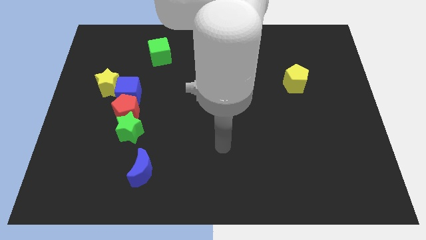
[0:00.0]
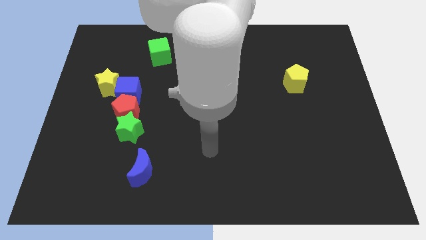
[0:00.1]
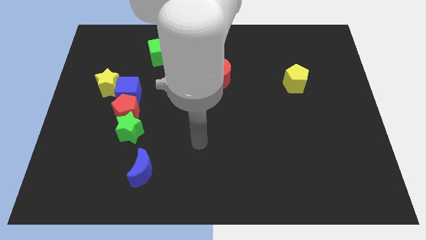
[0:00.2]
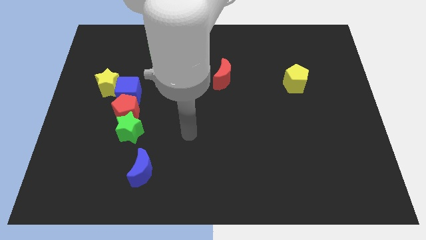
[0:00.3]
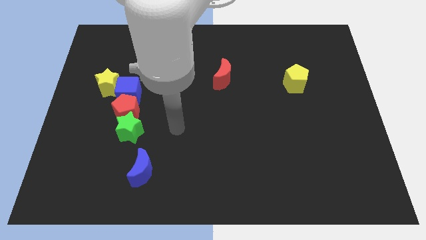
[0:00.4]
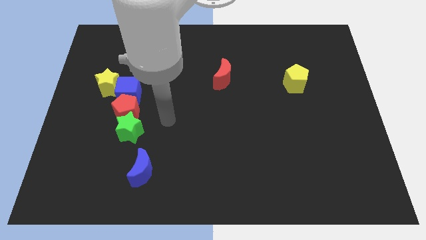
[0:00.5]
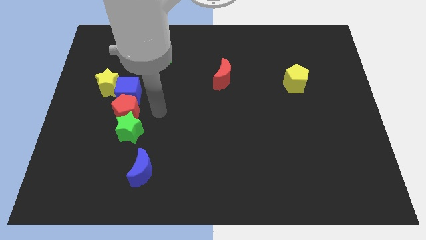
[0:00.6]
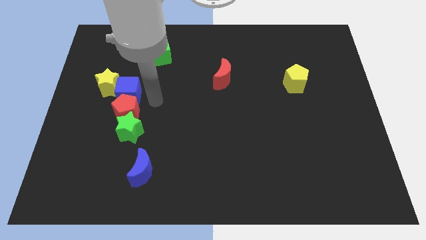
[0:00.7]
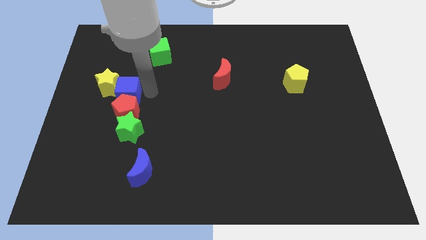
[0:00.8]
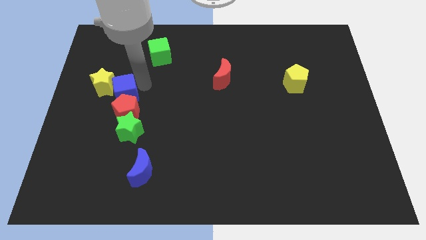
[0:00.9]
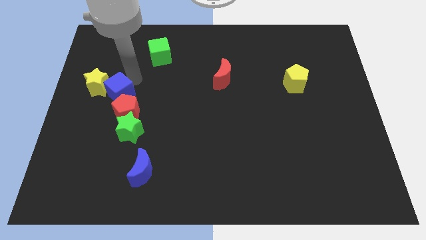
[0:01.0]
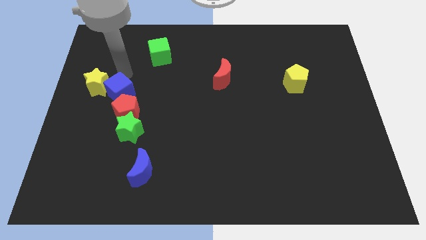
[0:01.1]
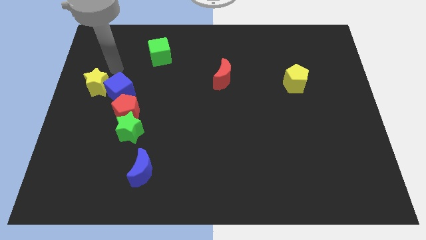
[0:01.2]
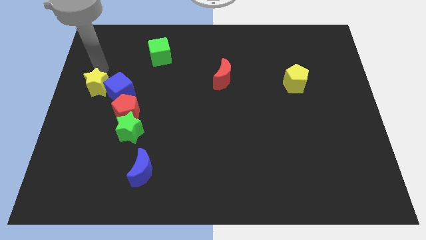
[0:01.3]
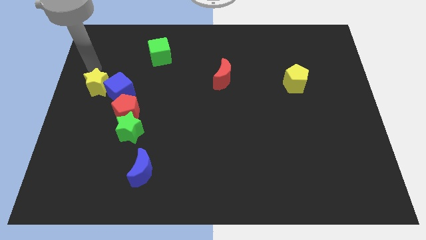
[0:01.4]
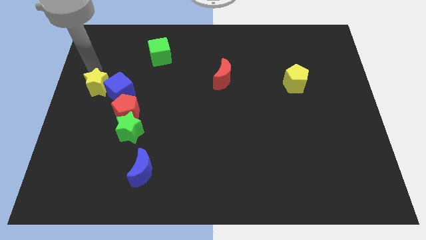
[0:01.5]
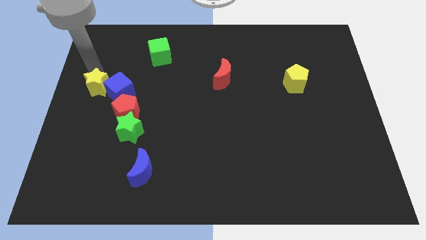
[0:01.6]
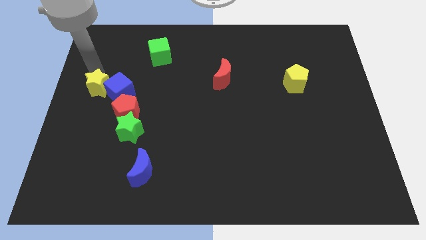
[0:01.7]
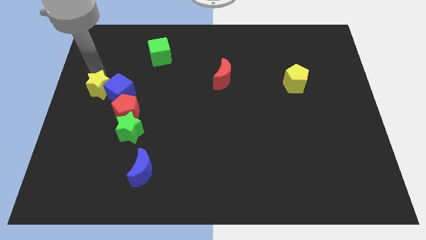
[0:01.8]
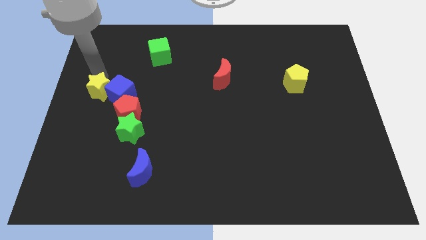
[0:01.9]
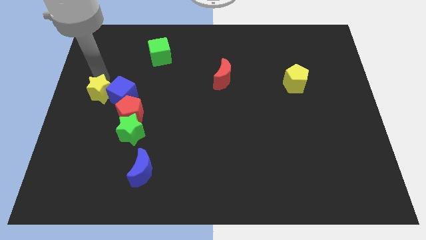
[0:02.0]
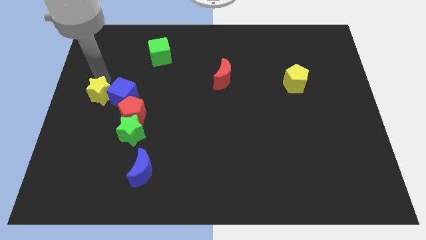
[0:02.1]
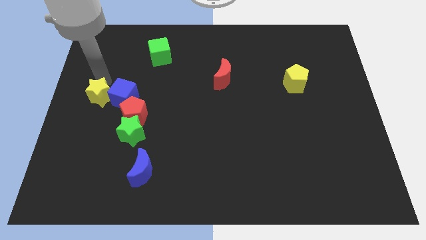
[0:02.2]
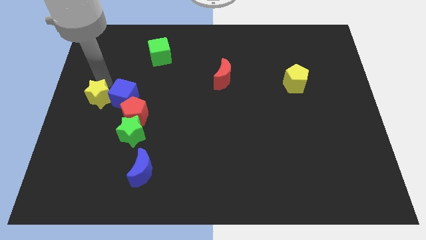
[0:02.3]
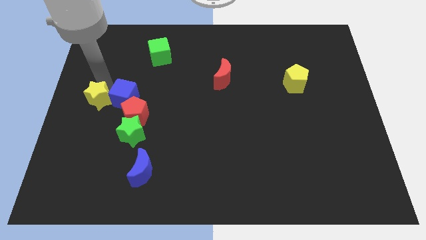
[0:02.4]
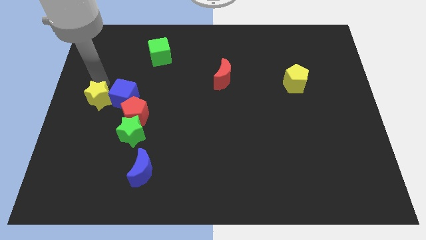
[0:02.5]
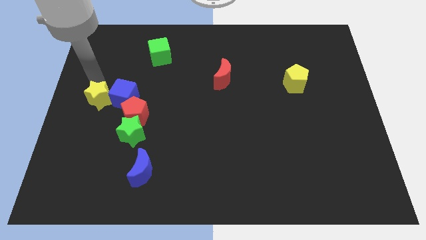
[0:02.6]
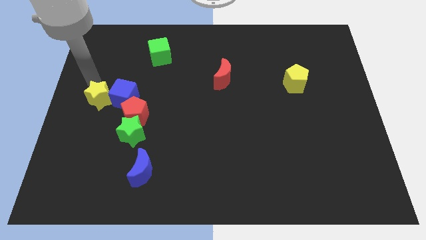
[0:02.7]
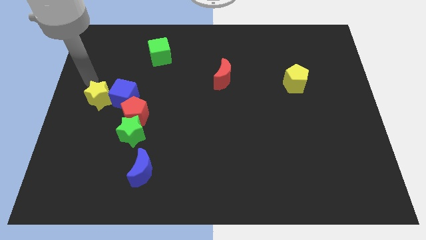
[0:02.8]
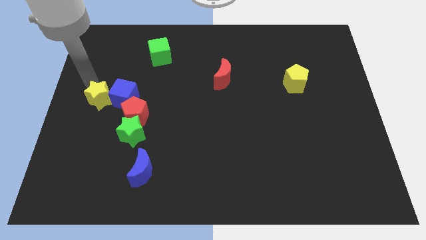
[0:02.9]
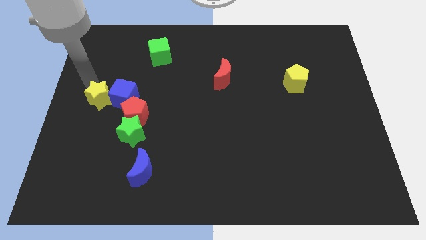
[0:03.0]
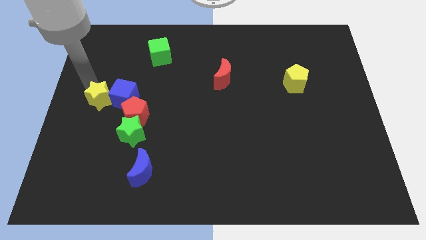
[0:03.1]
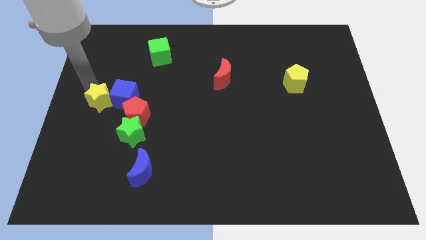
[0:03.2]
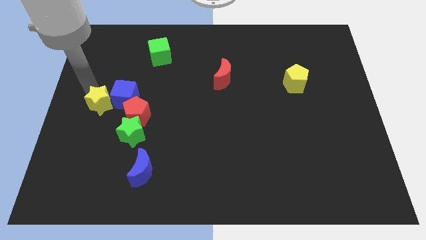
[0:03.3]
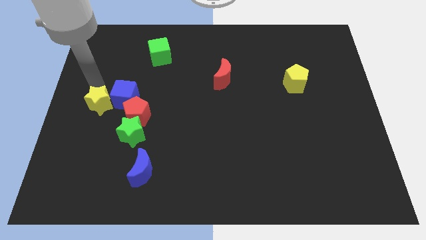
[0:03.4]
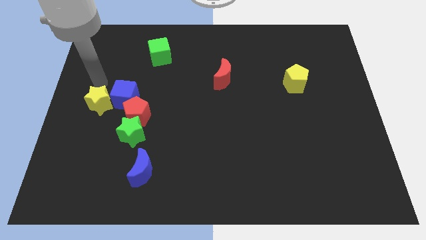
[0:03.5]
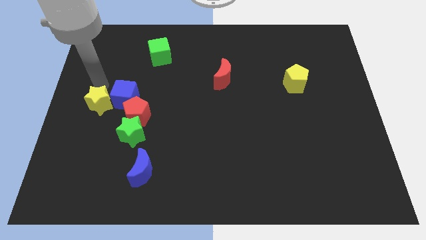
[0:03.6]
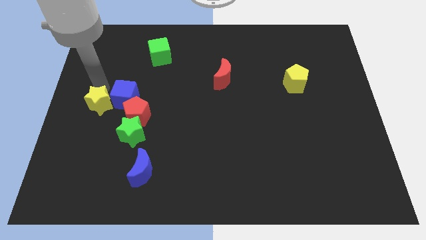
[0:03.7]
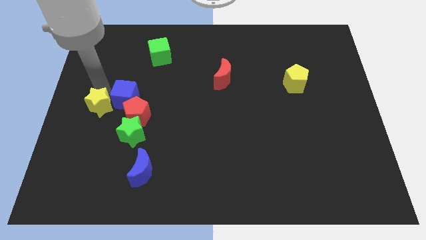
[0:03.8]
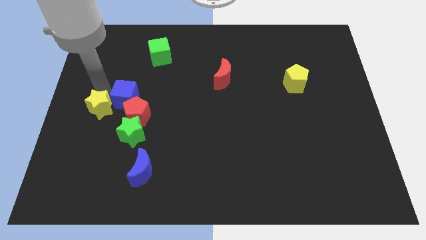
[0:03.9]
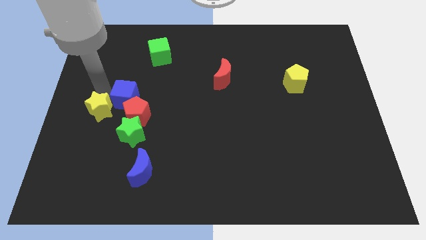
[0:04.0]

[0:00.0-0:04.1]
push the yellow star somewhat down

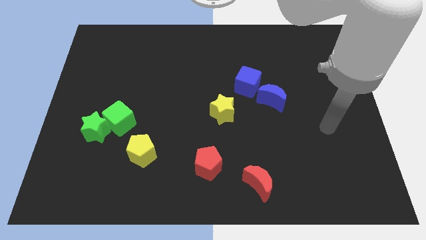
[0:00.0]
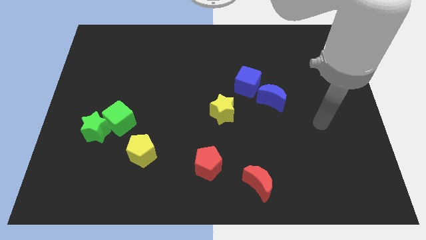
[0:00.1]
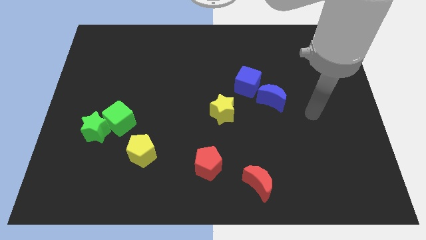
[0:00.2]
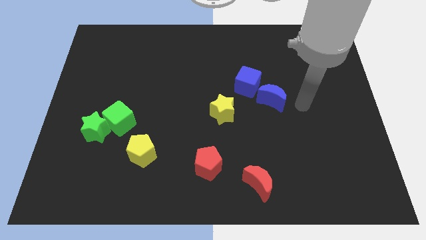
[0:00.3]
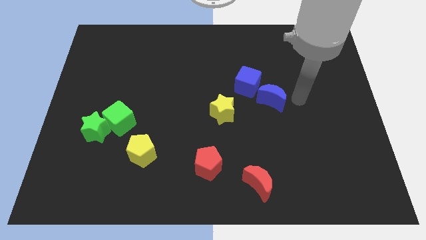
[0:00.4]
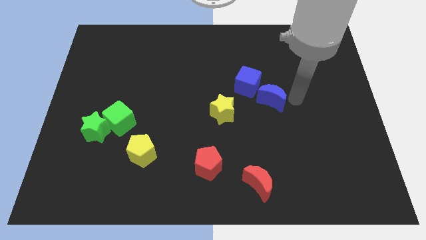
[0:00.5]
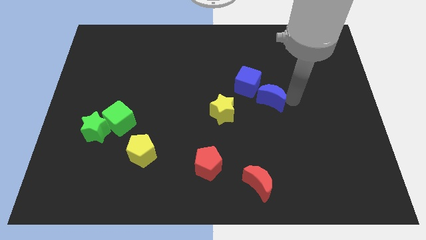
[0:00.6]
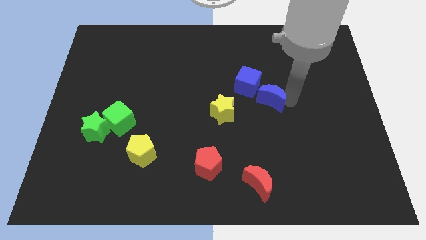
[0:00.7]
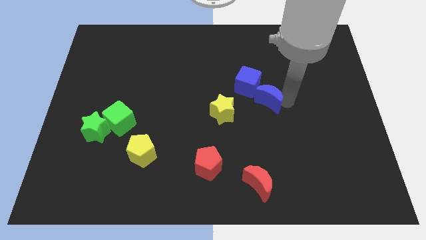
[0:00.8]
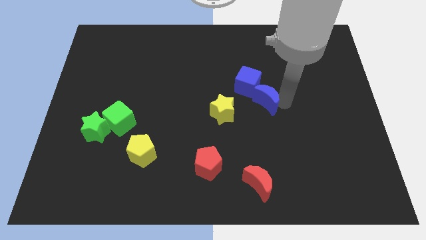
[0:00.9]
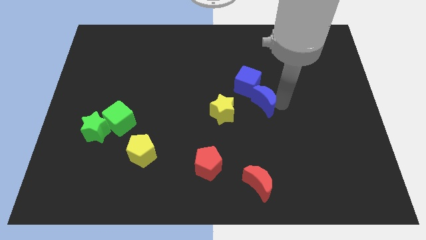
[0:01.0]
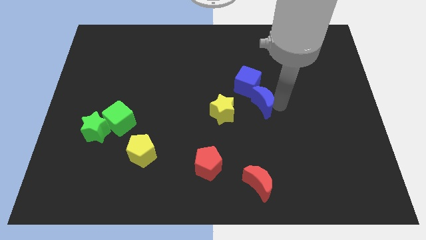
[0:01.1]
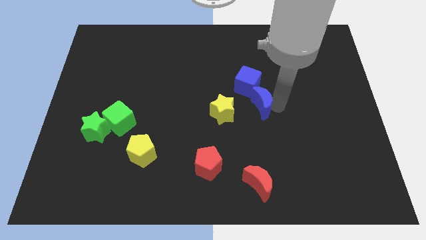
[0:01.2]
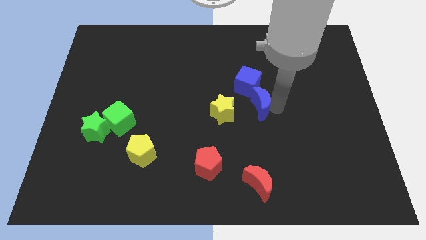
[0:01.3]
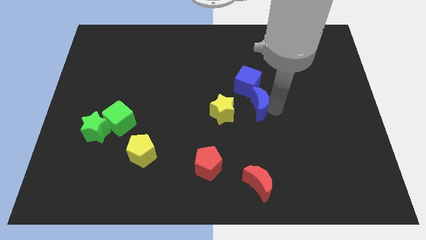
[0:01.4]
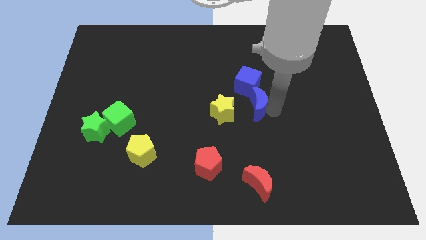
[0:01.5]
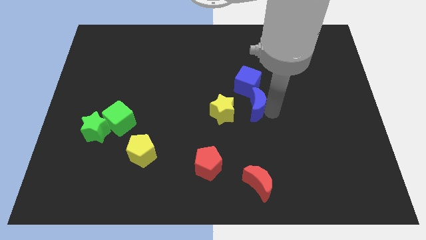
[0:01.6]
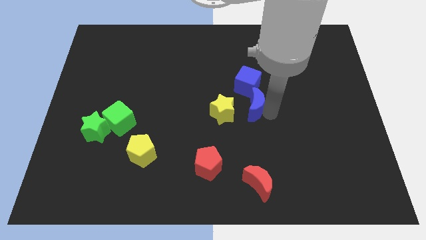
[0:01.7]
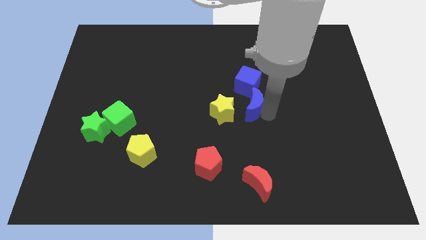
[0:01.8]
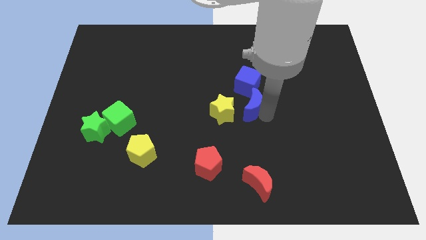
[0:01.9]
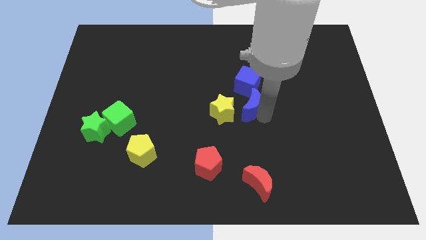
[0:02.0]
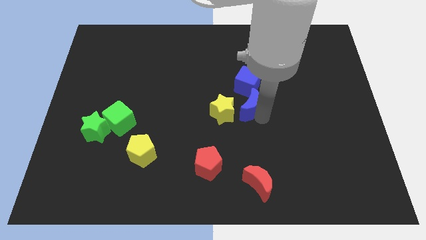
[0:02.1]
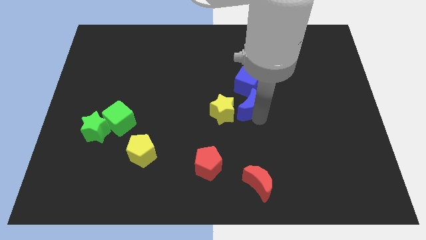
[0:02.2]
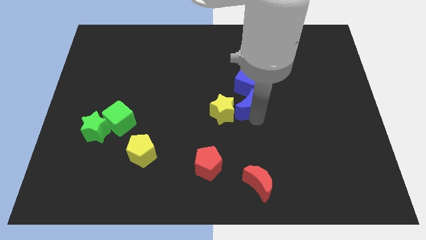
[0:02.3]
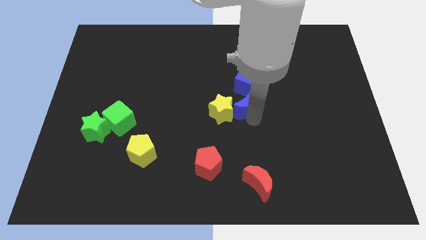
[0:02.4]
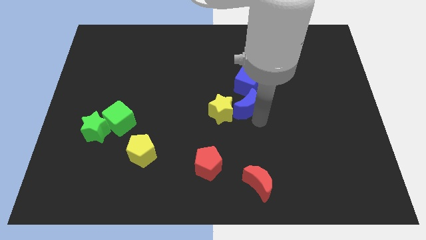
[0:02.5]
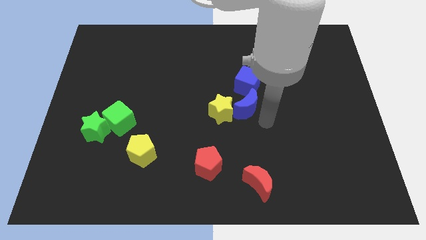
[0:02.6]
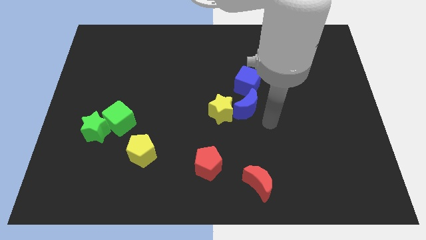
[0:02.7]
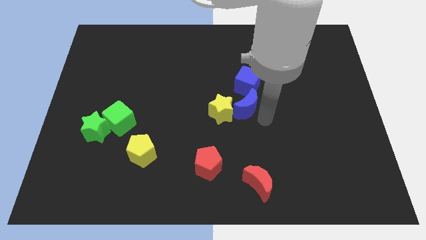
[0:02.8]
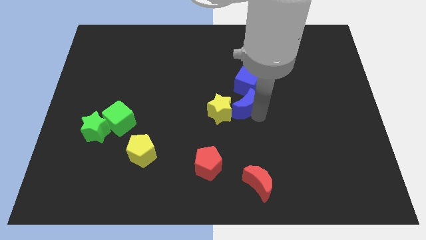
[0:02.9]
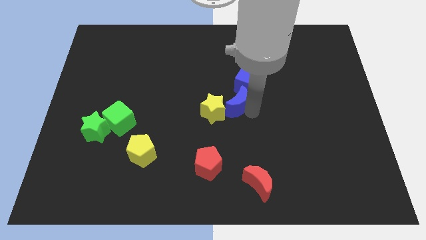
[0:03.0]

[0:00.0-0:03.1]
slightly slide the blue moon to the left

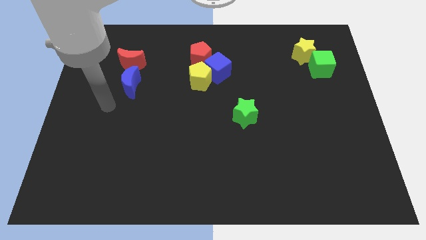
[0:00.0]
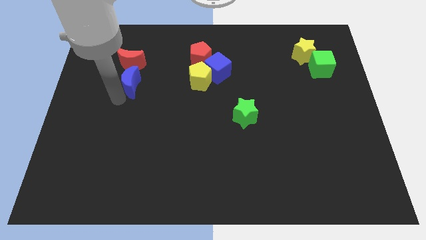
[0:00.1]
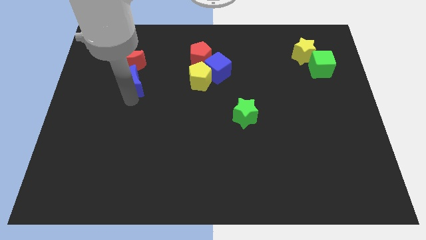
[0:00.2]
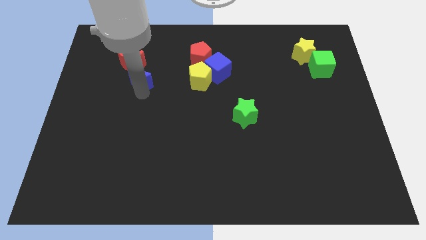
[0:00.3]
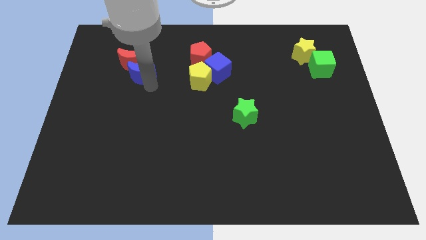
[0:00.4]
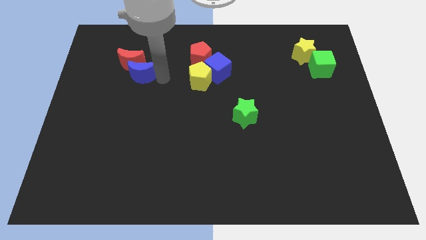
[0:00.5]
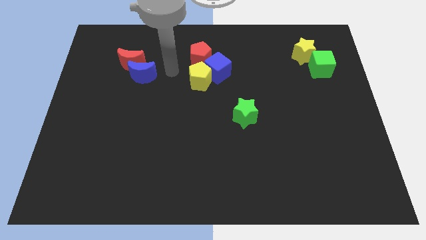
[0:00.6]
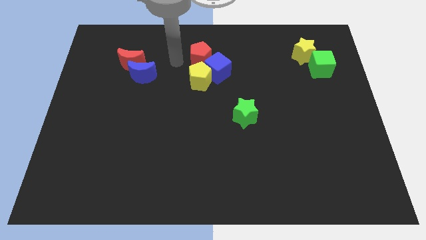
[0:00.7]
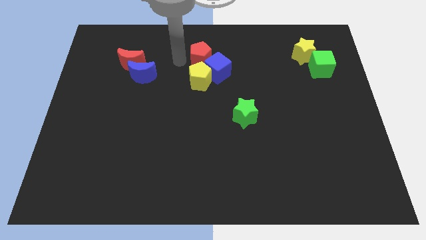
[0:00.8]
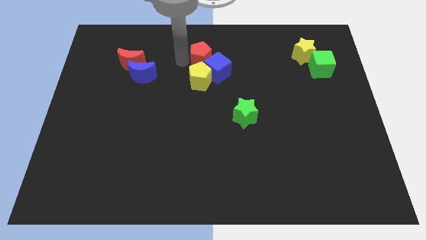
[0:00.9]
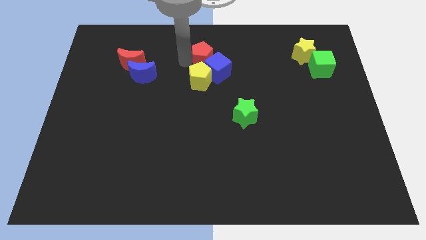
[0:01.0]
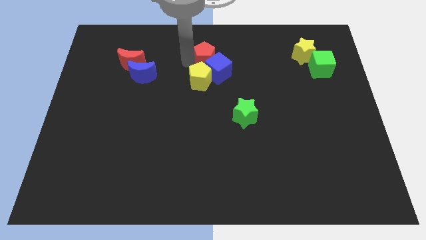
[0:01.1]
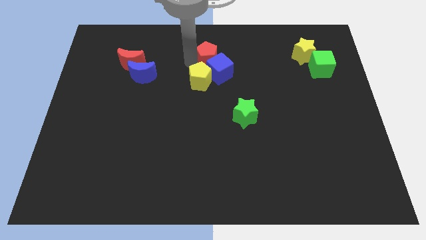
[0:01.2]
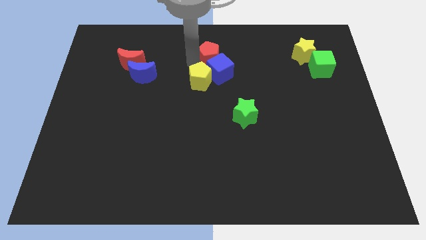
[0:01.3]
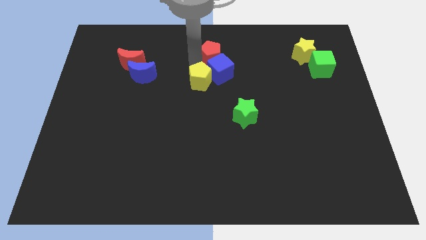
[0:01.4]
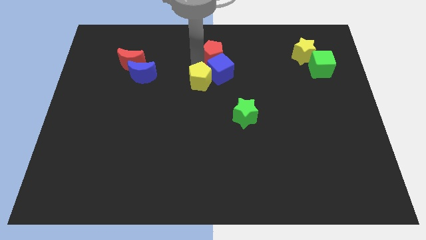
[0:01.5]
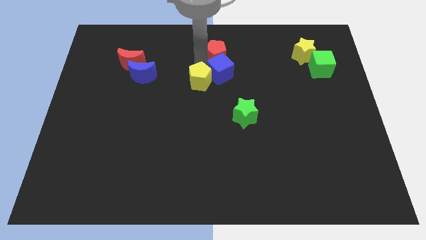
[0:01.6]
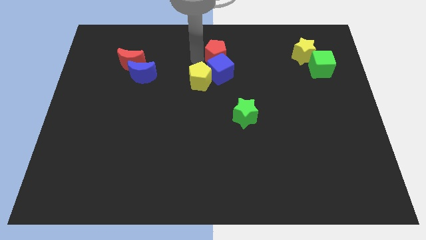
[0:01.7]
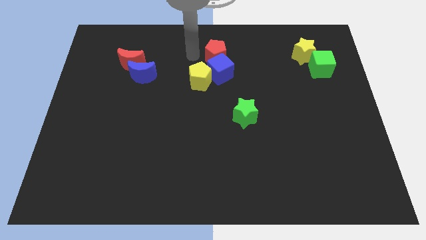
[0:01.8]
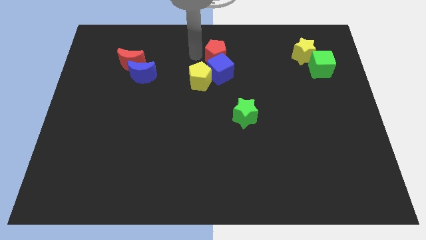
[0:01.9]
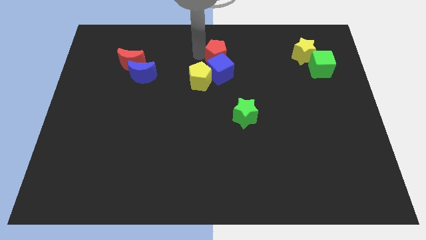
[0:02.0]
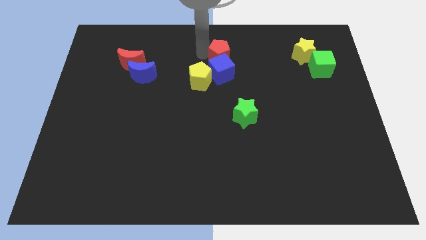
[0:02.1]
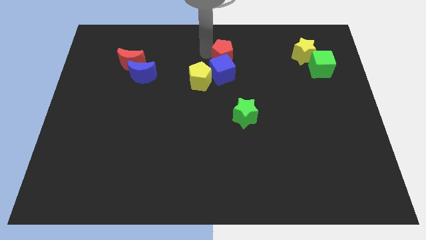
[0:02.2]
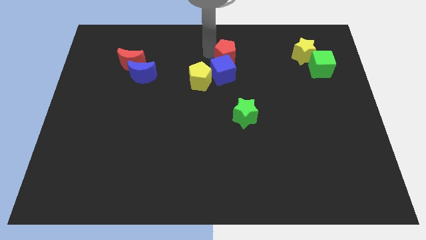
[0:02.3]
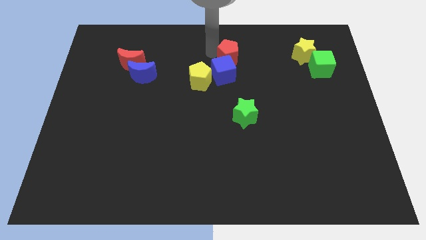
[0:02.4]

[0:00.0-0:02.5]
move the red pentagon right somewhat
